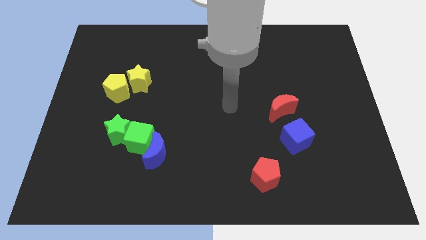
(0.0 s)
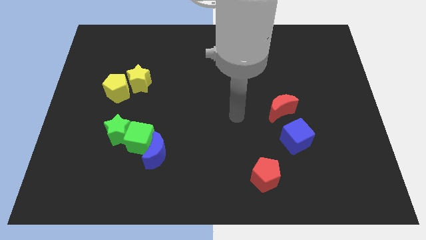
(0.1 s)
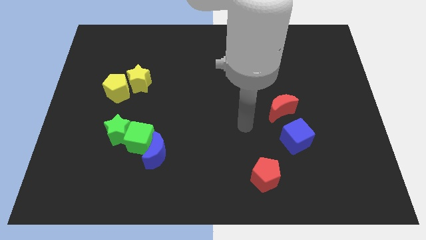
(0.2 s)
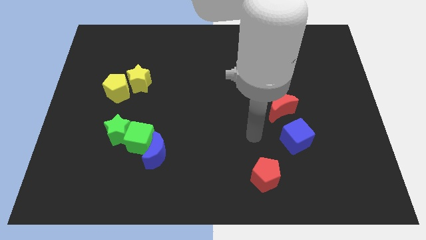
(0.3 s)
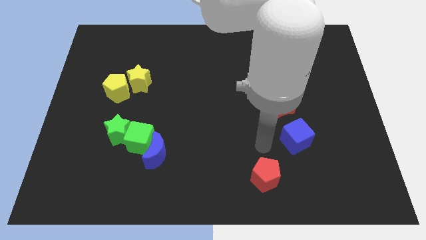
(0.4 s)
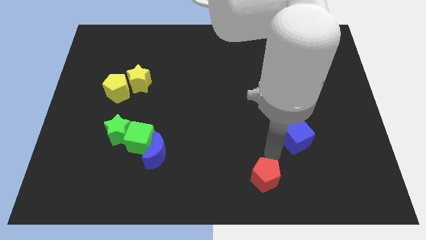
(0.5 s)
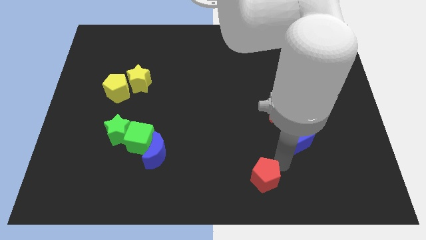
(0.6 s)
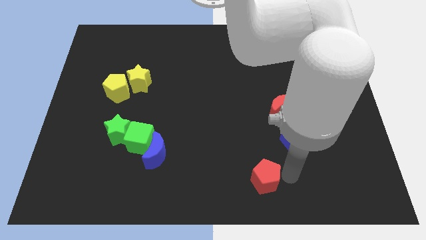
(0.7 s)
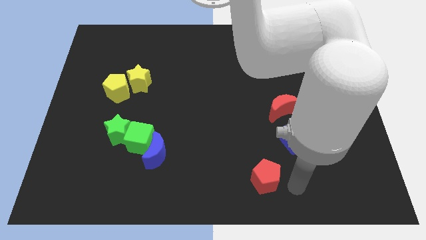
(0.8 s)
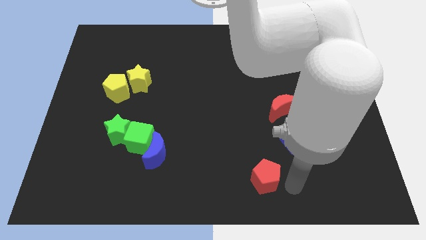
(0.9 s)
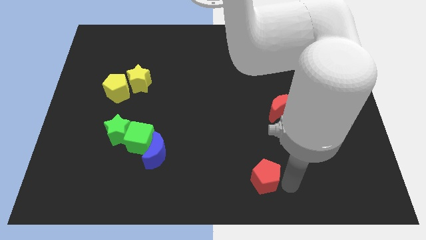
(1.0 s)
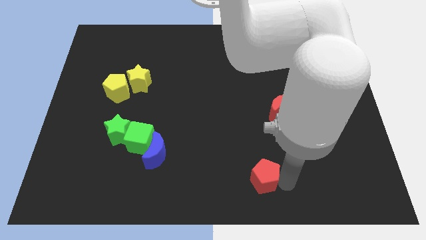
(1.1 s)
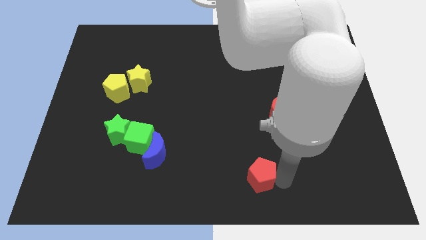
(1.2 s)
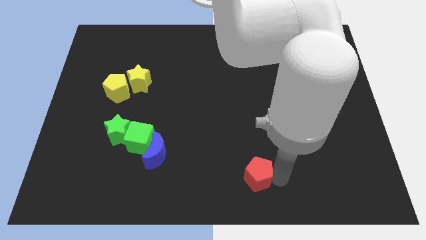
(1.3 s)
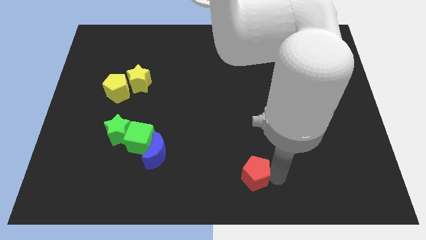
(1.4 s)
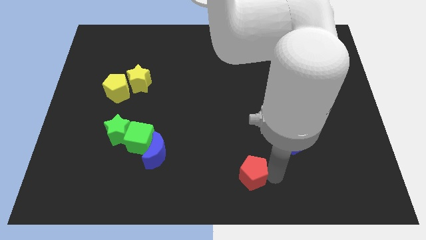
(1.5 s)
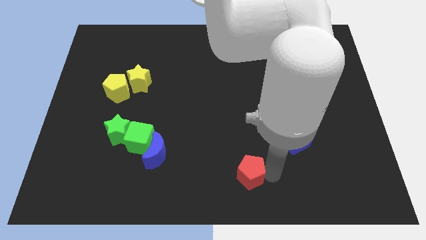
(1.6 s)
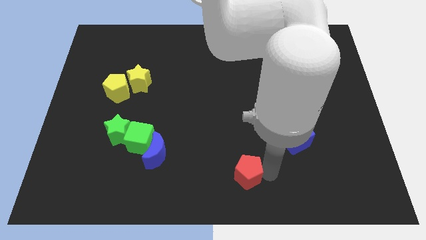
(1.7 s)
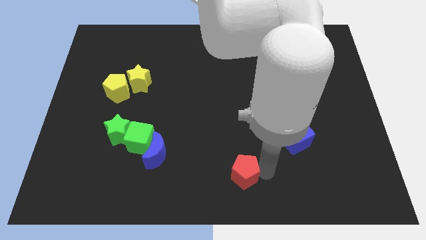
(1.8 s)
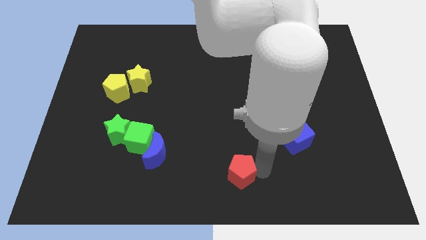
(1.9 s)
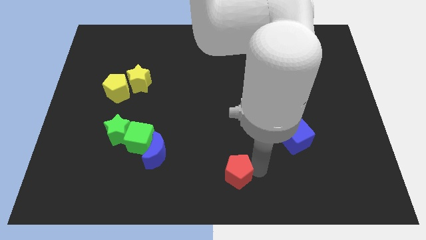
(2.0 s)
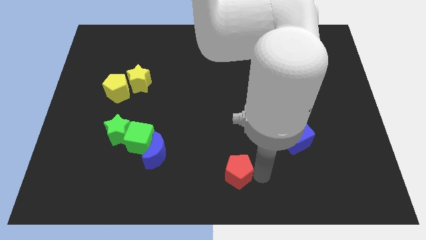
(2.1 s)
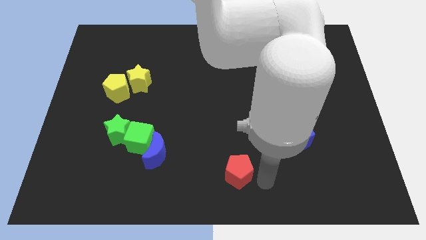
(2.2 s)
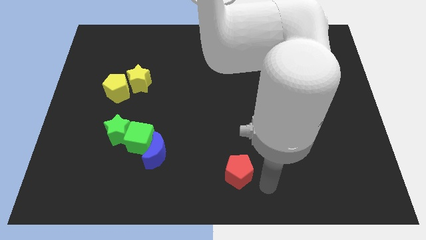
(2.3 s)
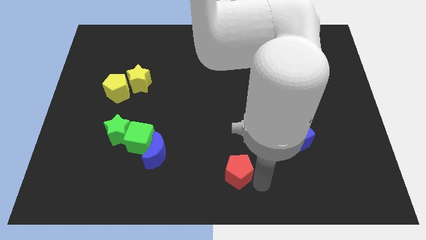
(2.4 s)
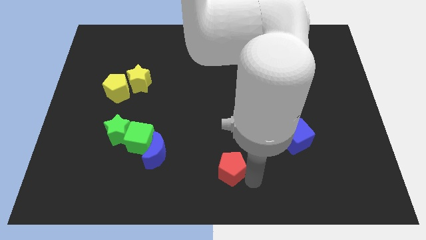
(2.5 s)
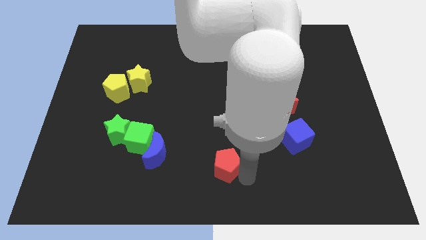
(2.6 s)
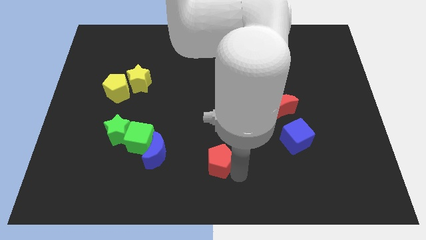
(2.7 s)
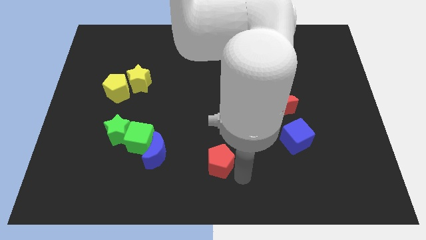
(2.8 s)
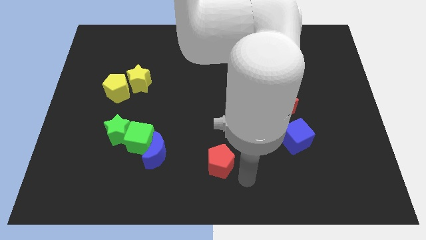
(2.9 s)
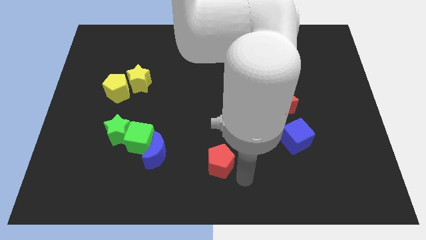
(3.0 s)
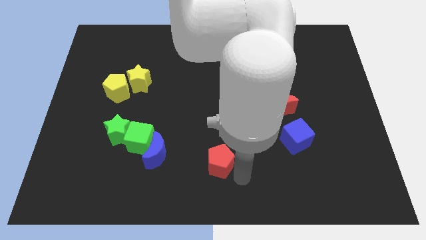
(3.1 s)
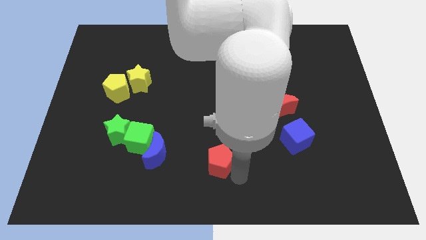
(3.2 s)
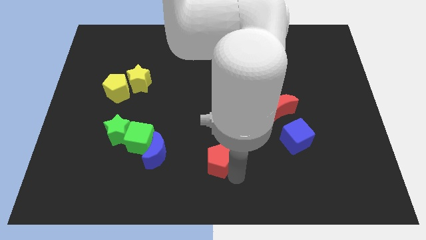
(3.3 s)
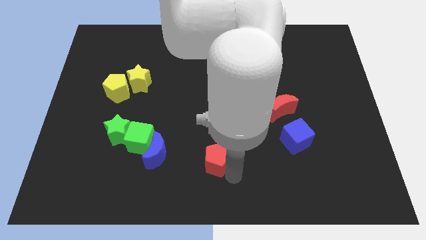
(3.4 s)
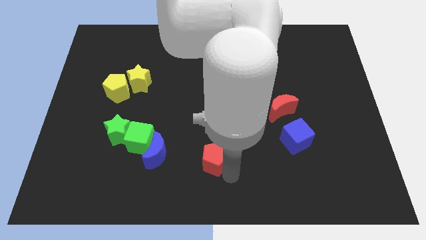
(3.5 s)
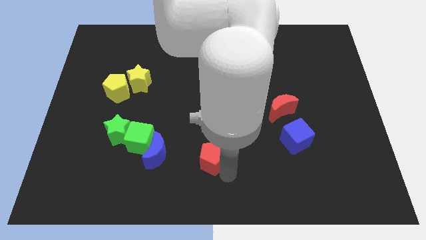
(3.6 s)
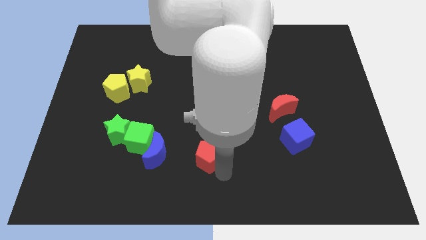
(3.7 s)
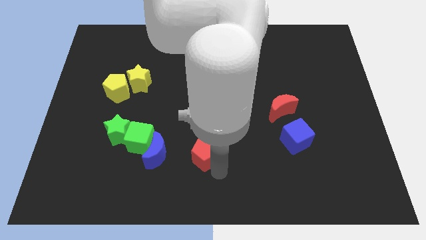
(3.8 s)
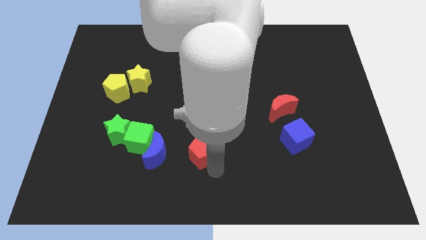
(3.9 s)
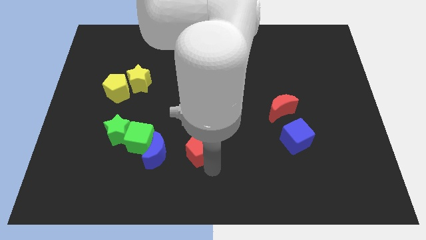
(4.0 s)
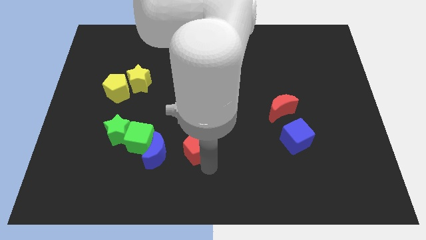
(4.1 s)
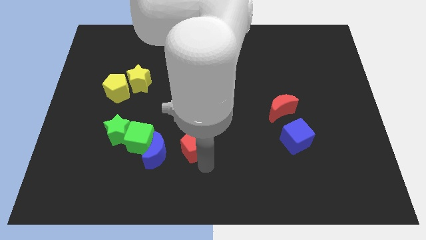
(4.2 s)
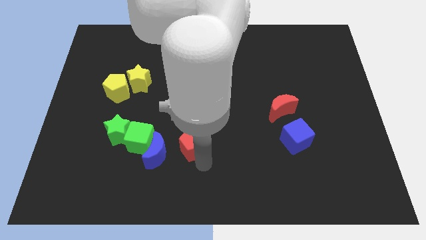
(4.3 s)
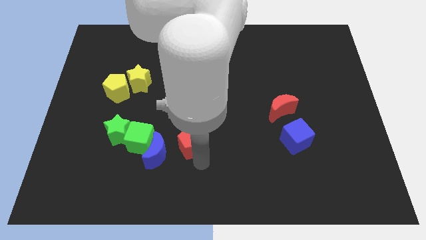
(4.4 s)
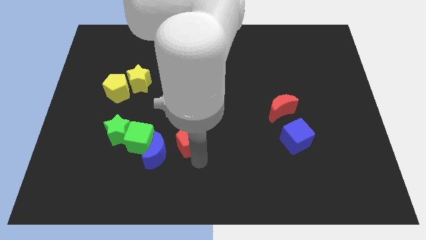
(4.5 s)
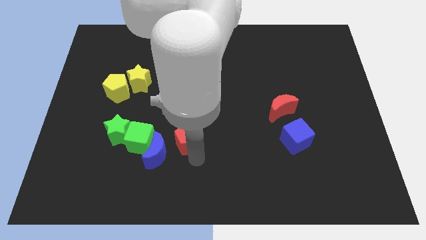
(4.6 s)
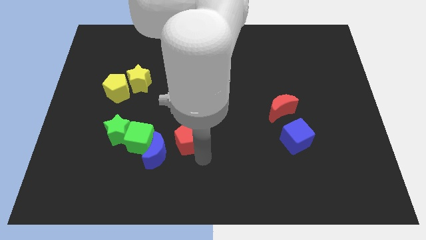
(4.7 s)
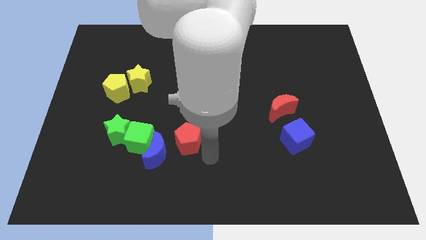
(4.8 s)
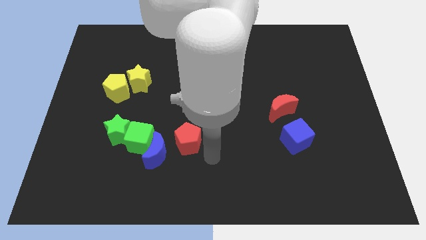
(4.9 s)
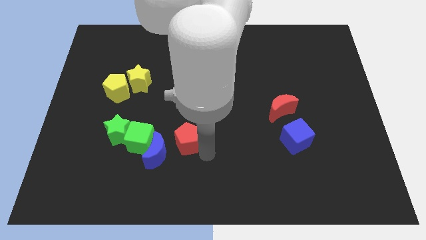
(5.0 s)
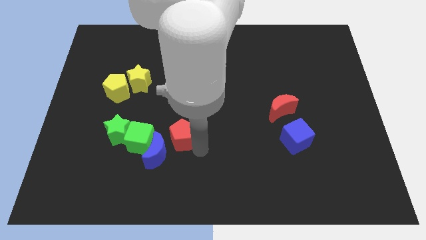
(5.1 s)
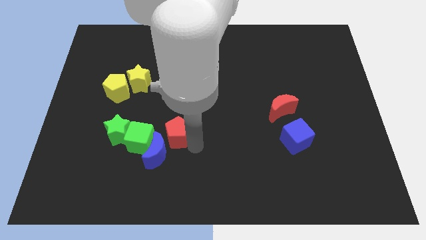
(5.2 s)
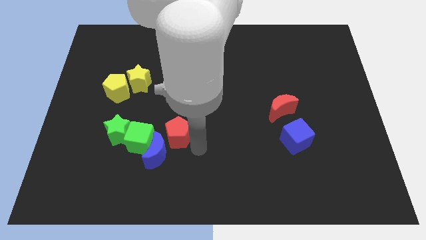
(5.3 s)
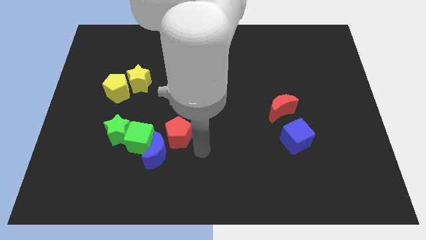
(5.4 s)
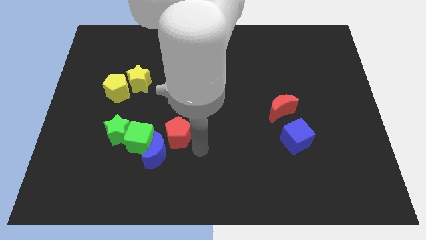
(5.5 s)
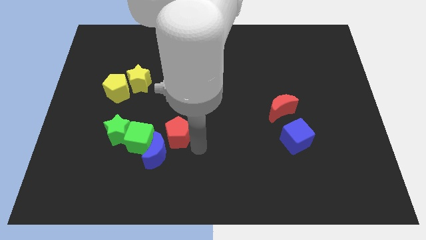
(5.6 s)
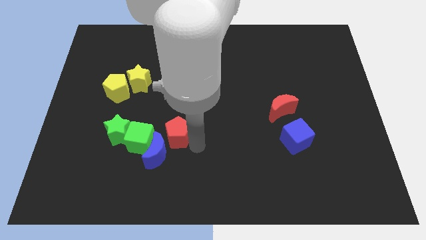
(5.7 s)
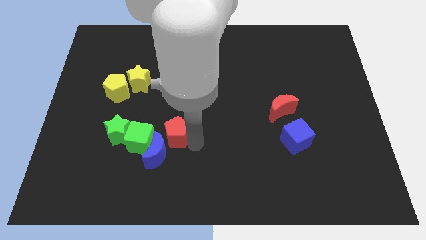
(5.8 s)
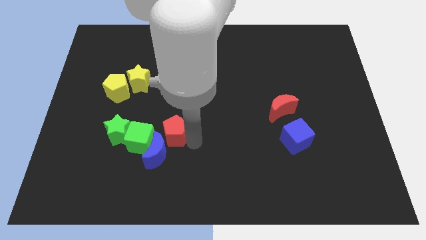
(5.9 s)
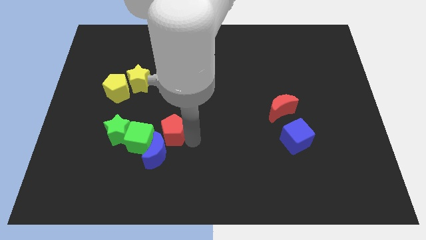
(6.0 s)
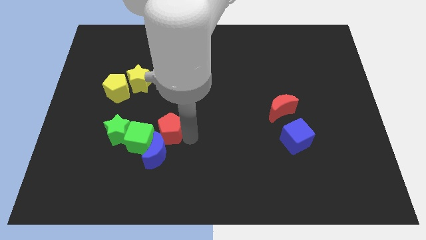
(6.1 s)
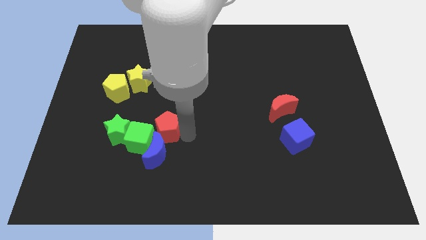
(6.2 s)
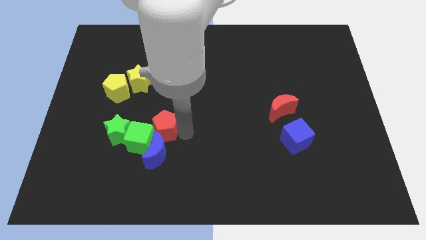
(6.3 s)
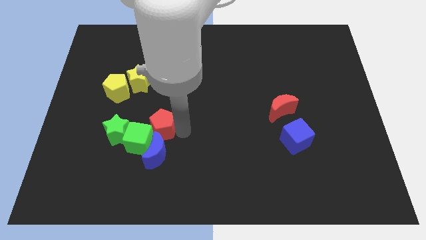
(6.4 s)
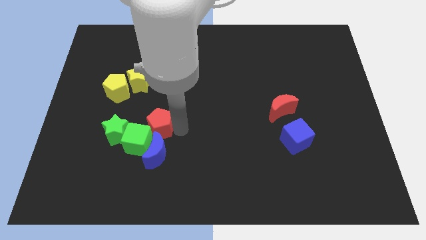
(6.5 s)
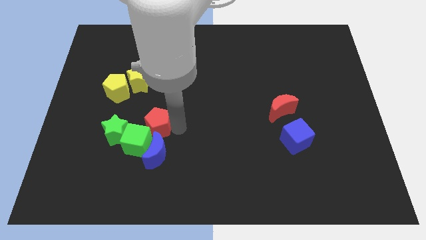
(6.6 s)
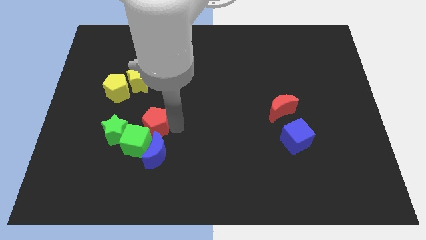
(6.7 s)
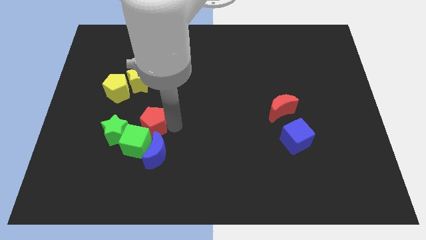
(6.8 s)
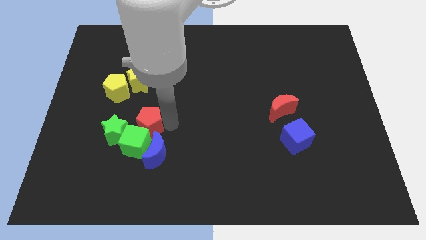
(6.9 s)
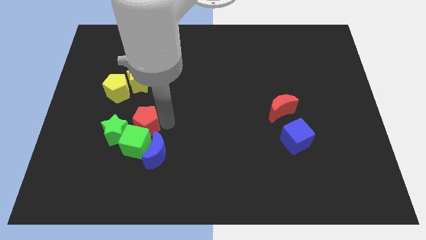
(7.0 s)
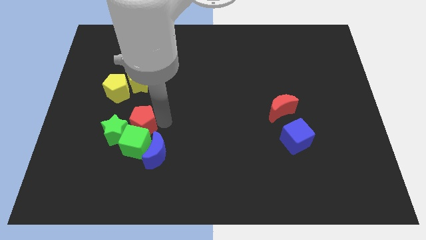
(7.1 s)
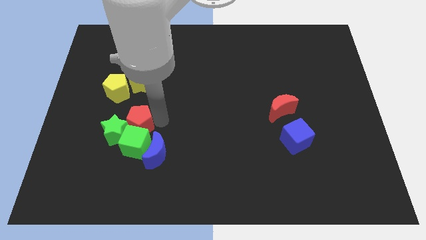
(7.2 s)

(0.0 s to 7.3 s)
move the red pentagon close to the green star
